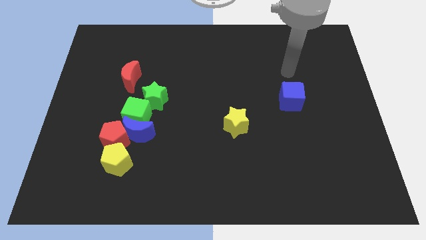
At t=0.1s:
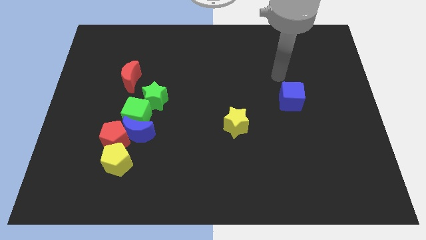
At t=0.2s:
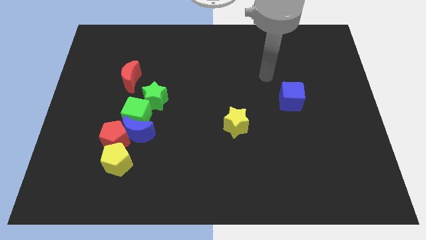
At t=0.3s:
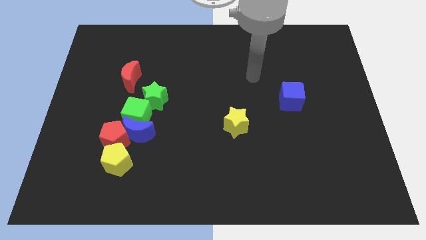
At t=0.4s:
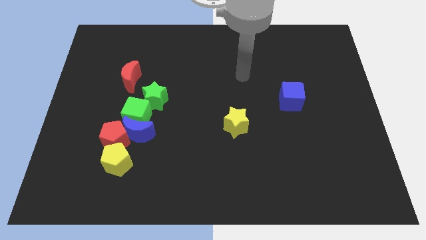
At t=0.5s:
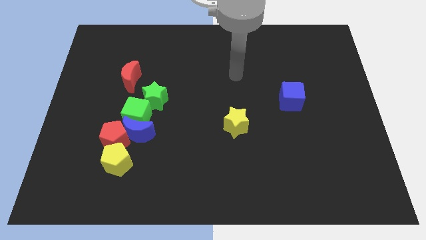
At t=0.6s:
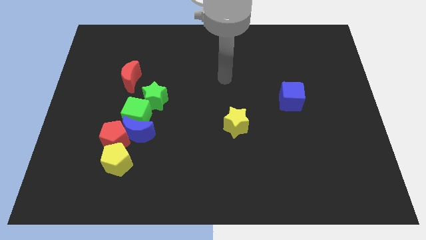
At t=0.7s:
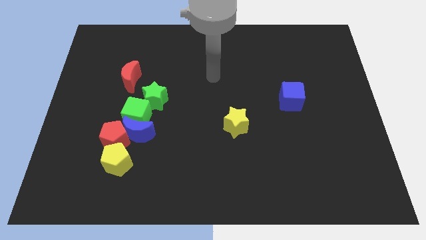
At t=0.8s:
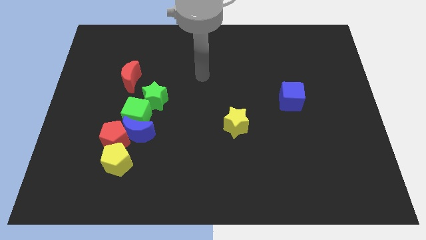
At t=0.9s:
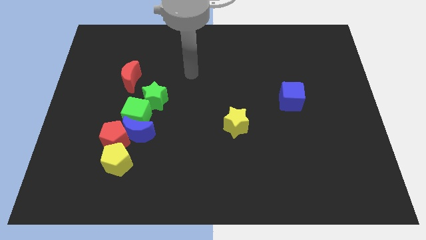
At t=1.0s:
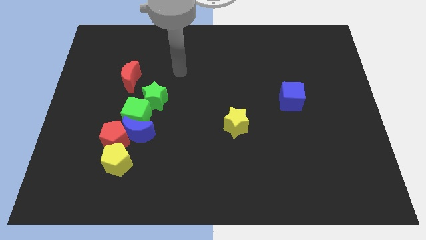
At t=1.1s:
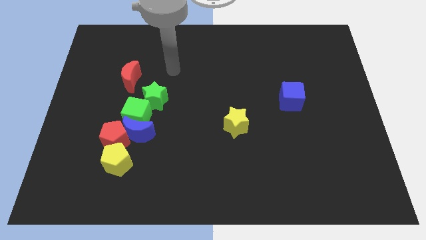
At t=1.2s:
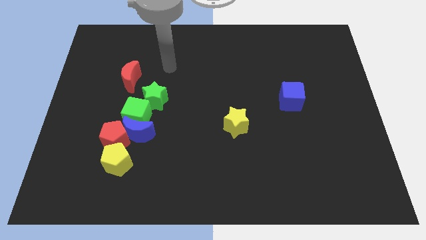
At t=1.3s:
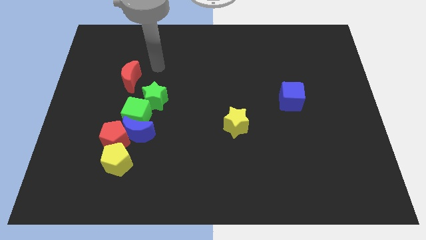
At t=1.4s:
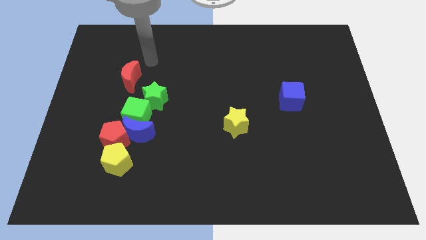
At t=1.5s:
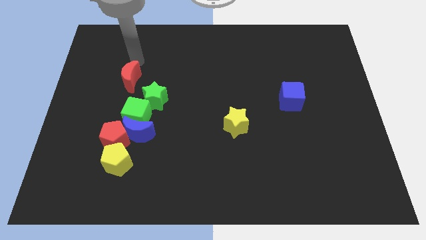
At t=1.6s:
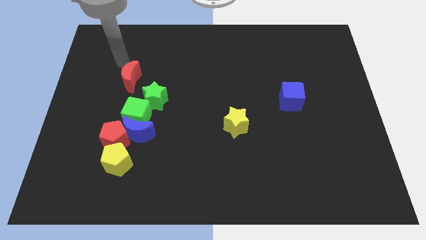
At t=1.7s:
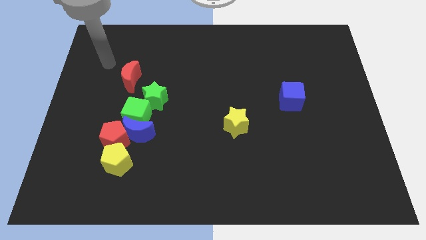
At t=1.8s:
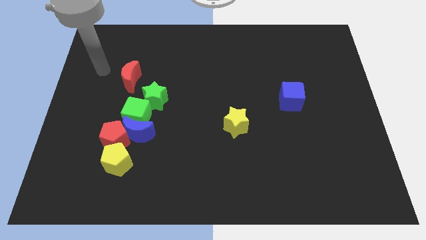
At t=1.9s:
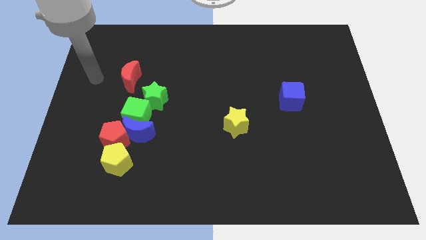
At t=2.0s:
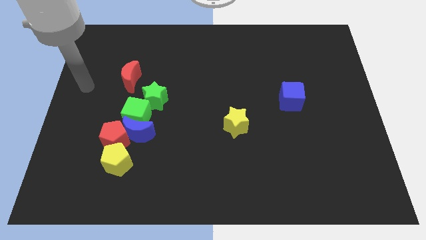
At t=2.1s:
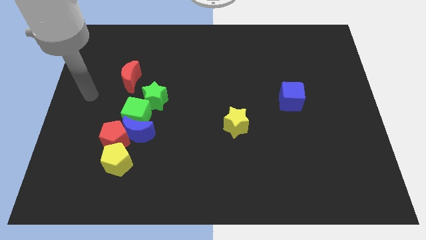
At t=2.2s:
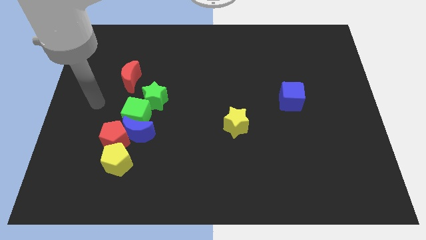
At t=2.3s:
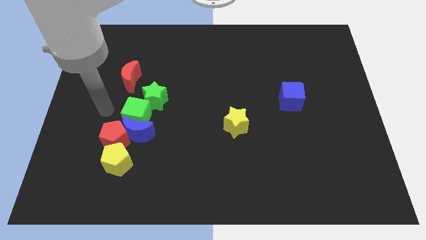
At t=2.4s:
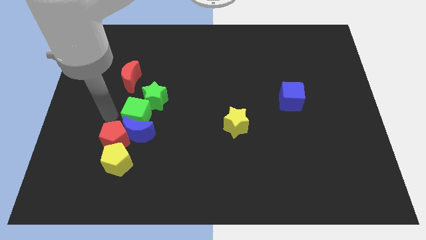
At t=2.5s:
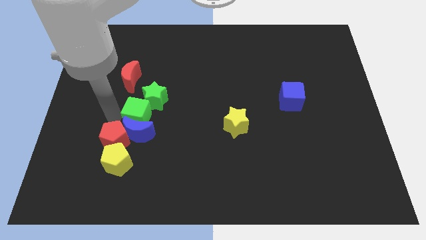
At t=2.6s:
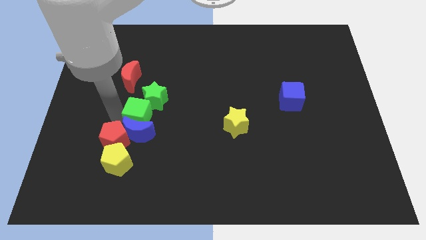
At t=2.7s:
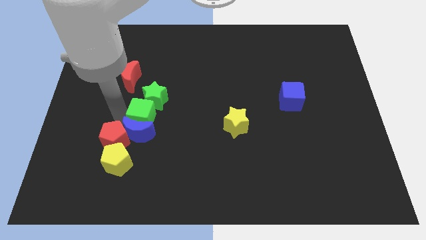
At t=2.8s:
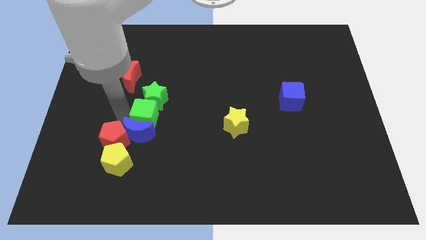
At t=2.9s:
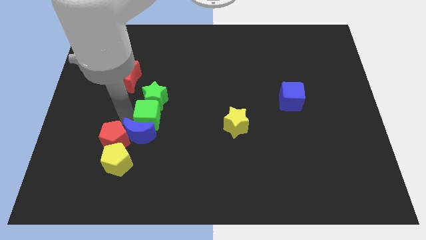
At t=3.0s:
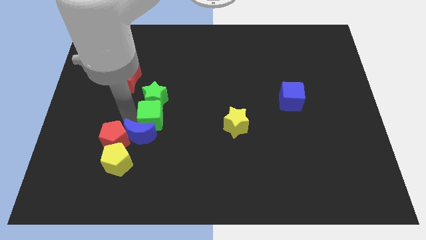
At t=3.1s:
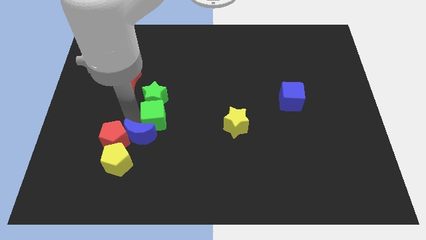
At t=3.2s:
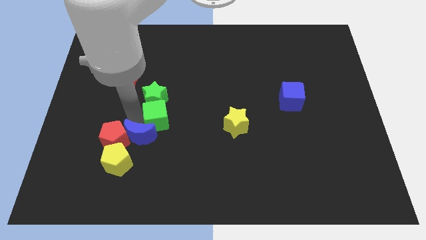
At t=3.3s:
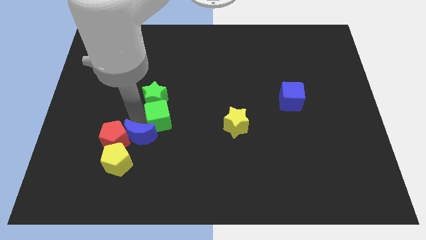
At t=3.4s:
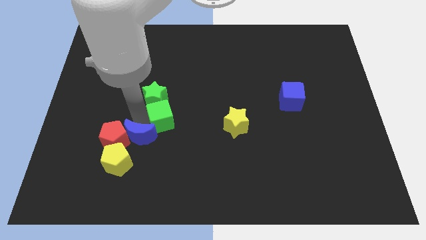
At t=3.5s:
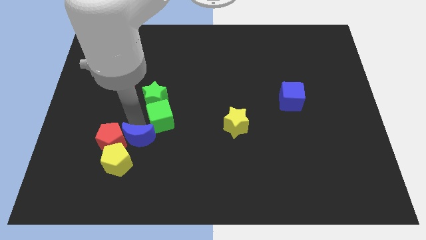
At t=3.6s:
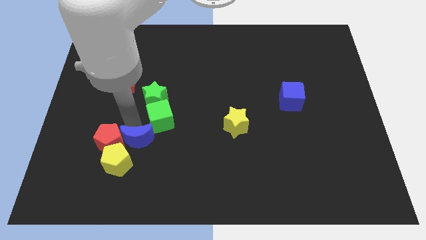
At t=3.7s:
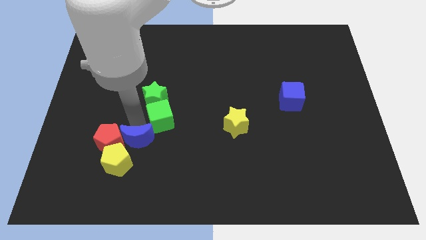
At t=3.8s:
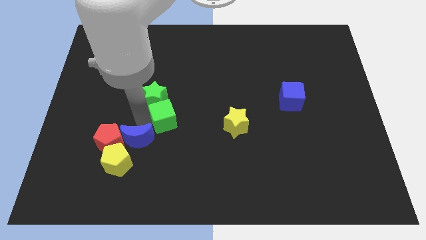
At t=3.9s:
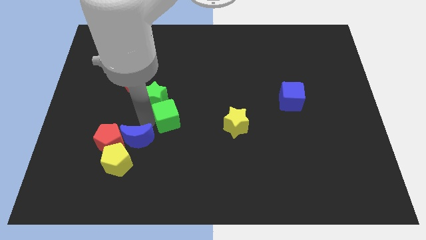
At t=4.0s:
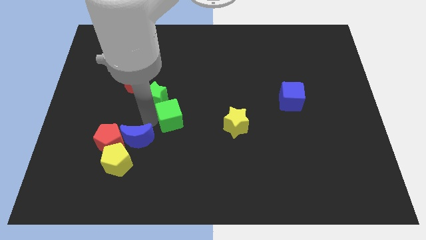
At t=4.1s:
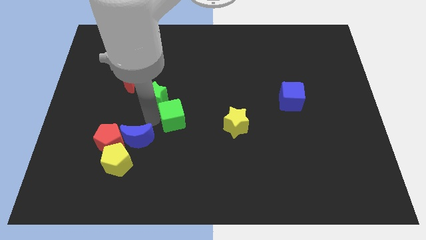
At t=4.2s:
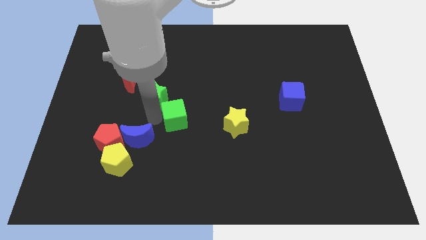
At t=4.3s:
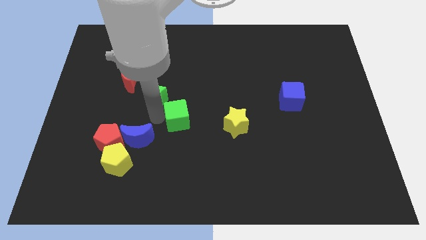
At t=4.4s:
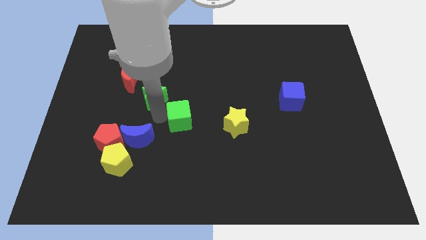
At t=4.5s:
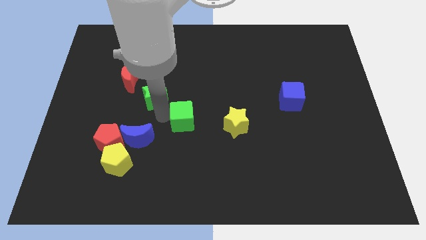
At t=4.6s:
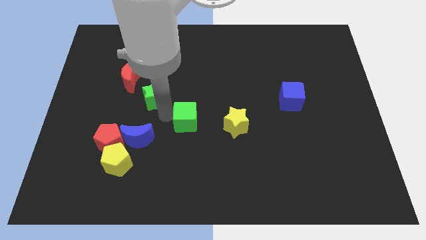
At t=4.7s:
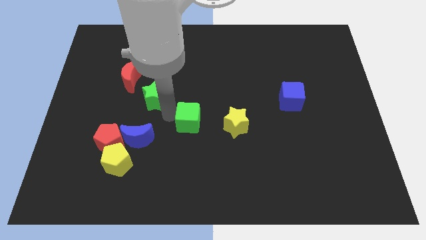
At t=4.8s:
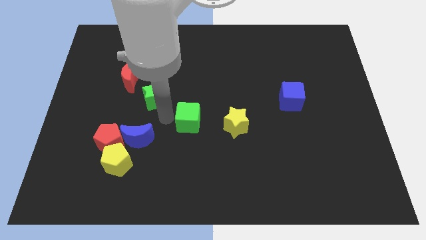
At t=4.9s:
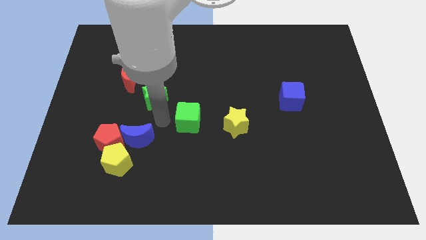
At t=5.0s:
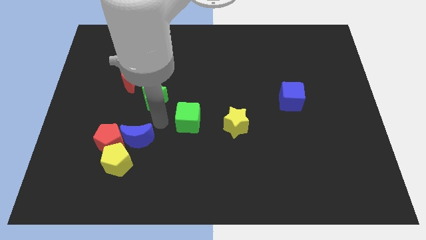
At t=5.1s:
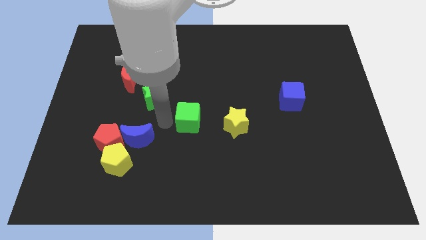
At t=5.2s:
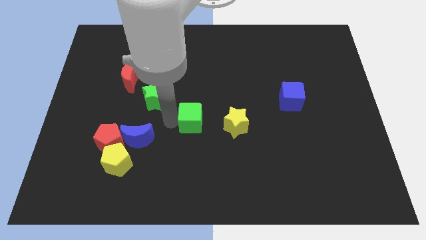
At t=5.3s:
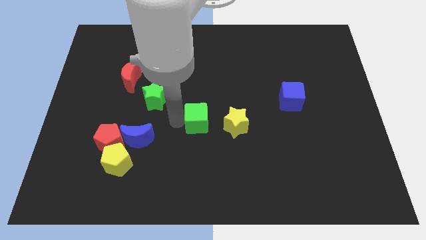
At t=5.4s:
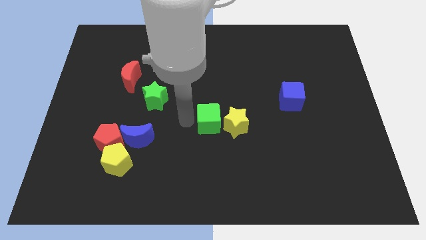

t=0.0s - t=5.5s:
put the green cube next to the yellow star

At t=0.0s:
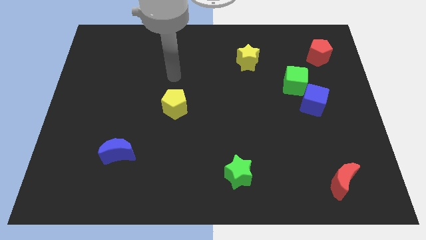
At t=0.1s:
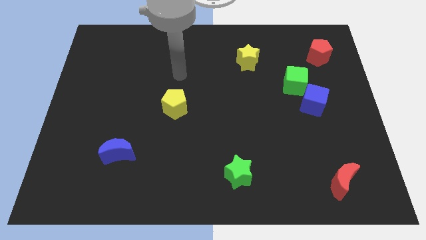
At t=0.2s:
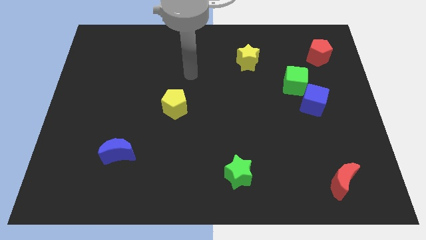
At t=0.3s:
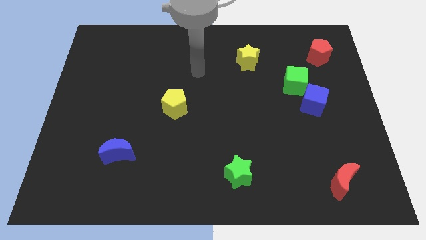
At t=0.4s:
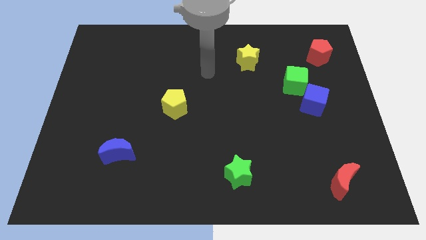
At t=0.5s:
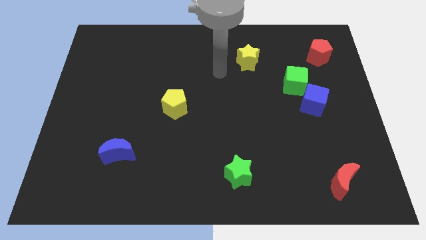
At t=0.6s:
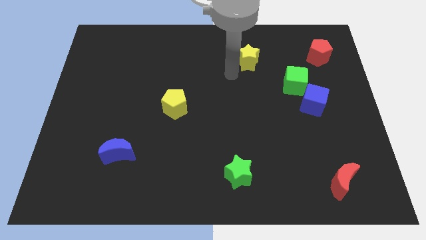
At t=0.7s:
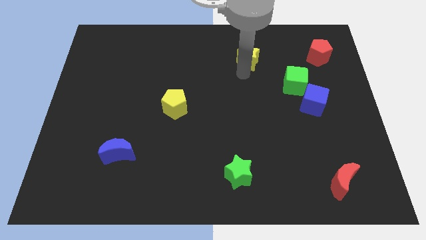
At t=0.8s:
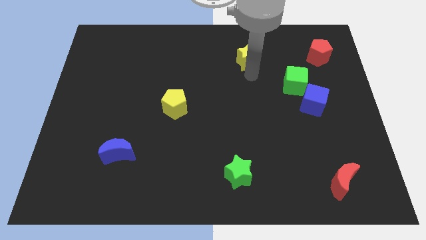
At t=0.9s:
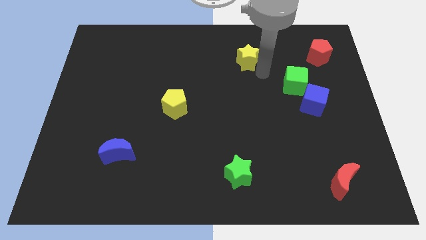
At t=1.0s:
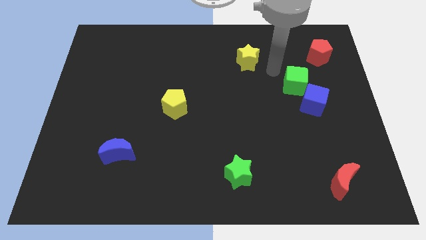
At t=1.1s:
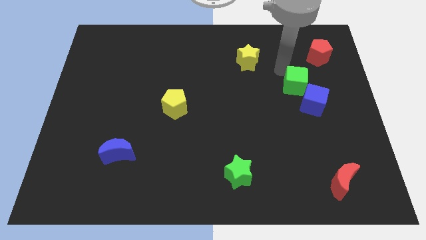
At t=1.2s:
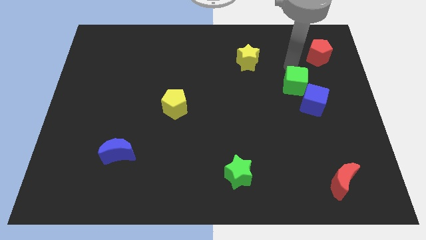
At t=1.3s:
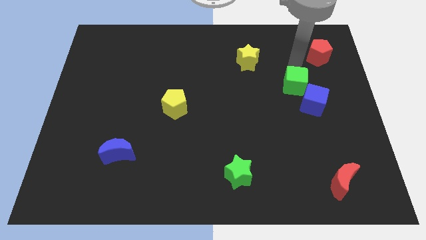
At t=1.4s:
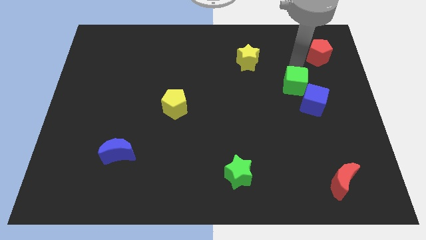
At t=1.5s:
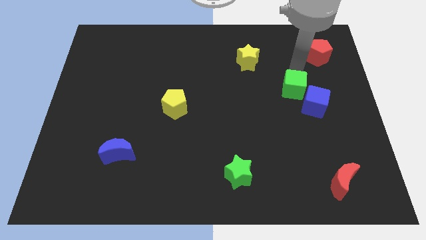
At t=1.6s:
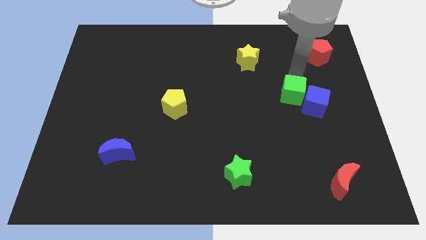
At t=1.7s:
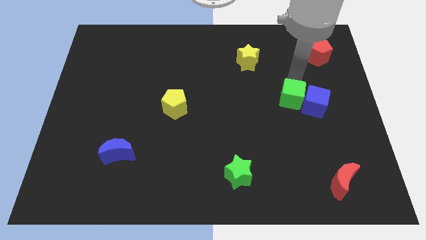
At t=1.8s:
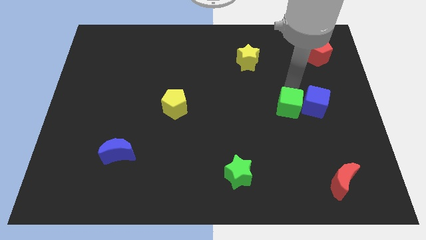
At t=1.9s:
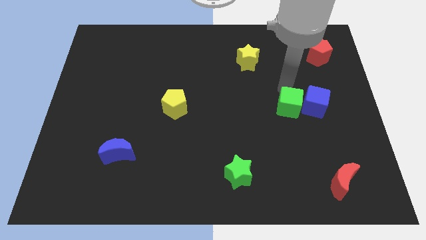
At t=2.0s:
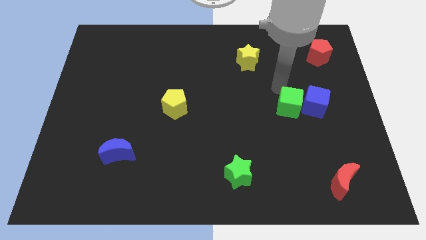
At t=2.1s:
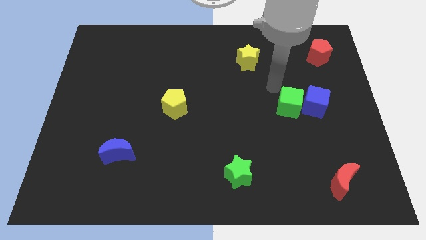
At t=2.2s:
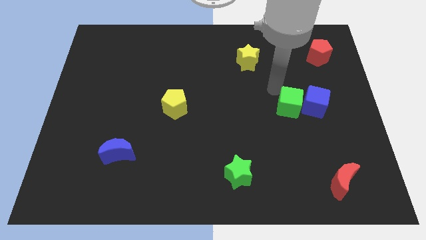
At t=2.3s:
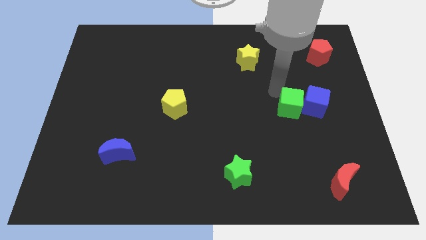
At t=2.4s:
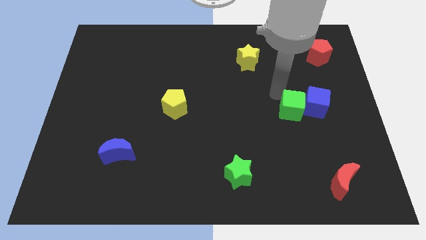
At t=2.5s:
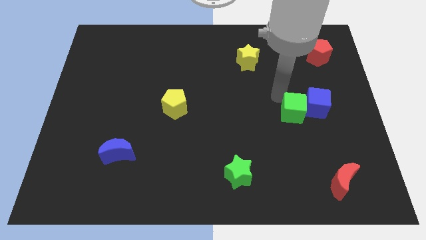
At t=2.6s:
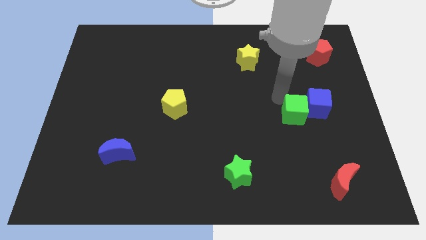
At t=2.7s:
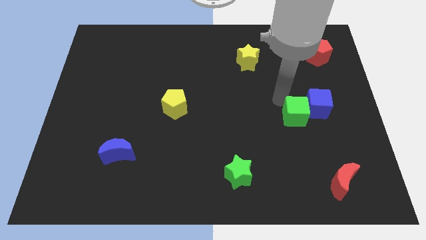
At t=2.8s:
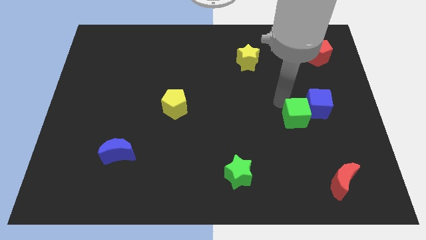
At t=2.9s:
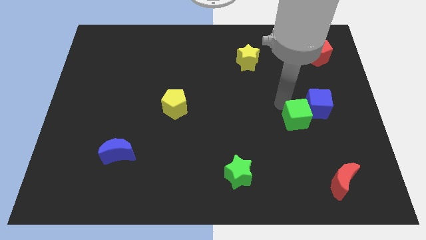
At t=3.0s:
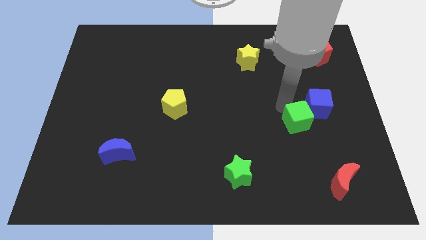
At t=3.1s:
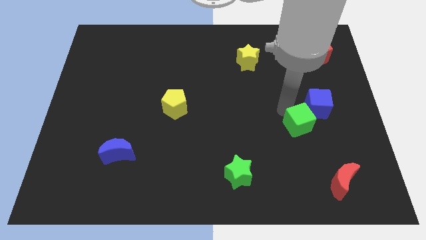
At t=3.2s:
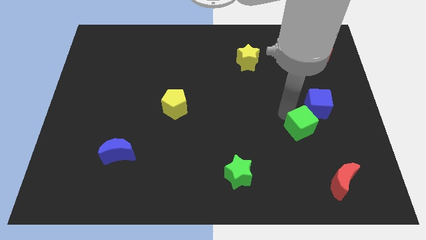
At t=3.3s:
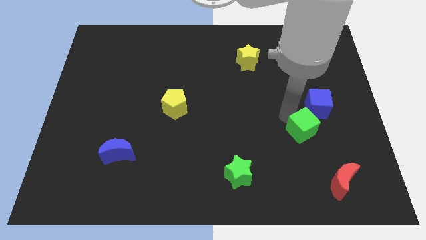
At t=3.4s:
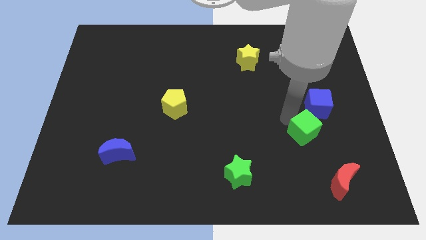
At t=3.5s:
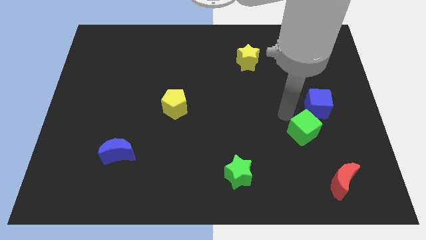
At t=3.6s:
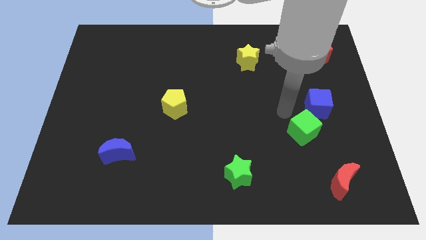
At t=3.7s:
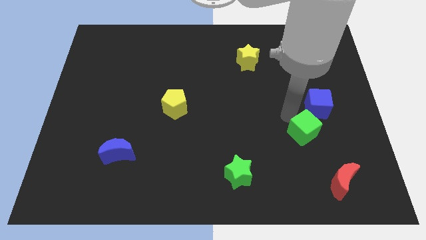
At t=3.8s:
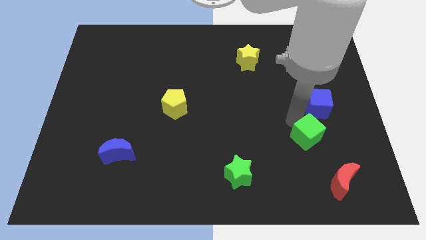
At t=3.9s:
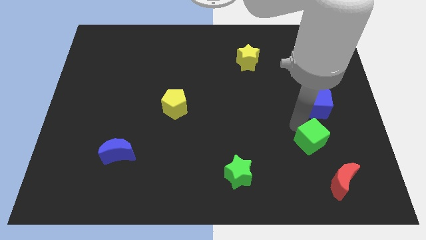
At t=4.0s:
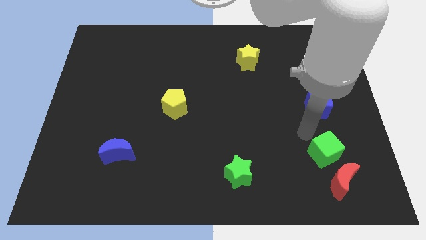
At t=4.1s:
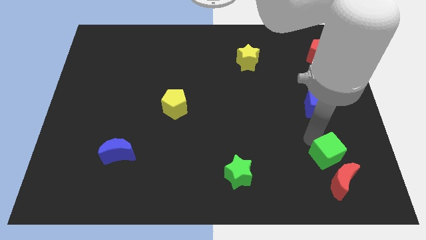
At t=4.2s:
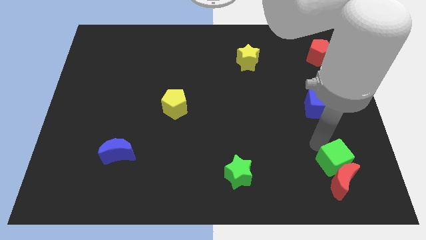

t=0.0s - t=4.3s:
slide the green cube next to the red moon
